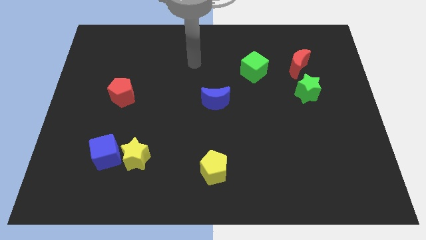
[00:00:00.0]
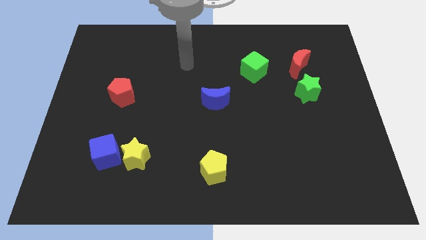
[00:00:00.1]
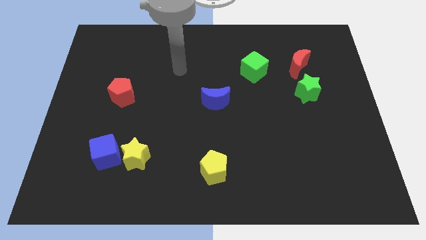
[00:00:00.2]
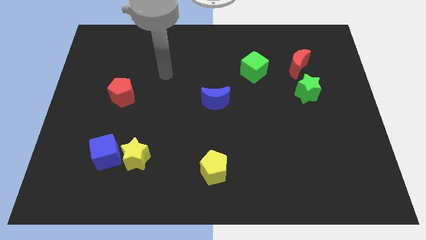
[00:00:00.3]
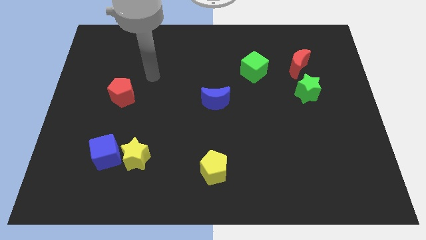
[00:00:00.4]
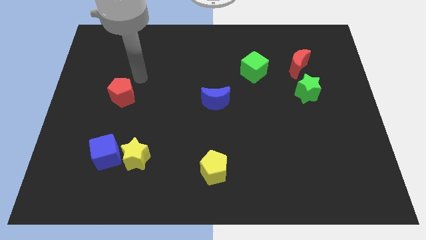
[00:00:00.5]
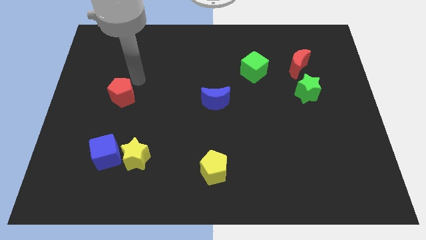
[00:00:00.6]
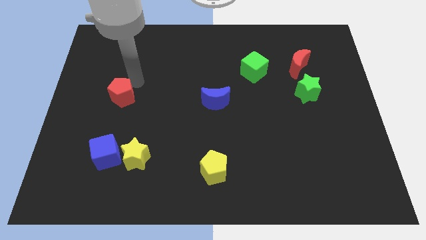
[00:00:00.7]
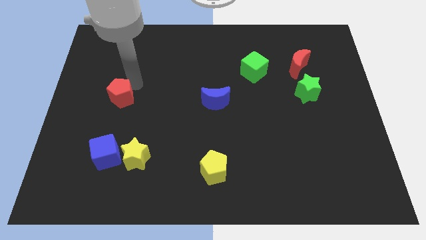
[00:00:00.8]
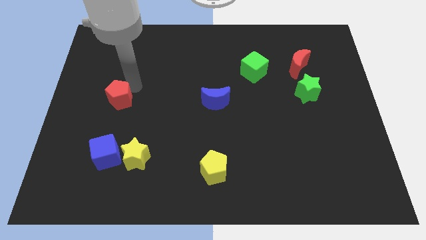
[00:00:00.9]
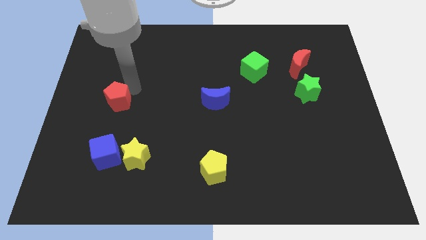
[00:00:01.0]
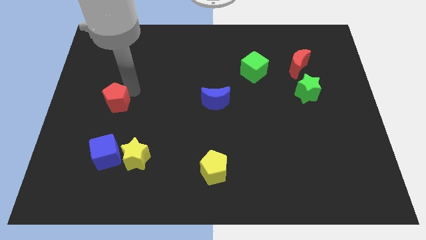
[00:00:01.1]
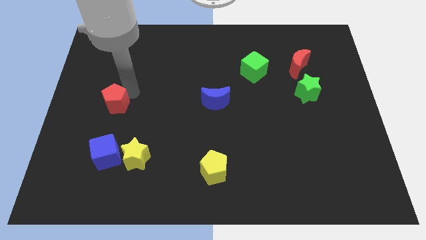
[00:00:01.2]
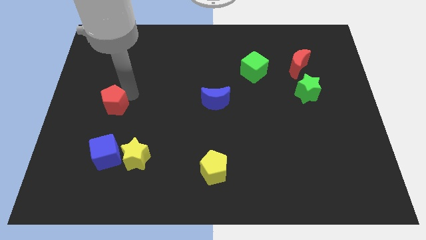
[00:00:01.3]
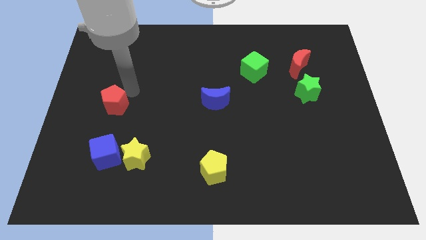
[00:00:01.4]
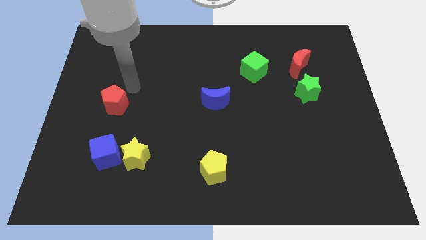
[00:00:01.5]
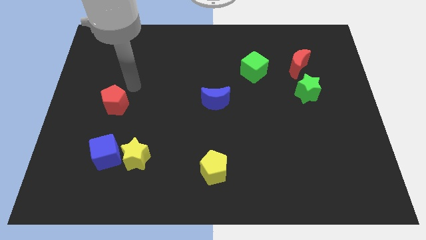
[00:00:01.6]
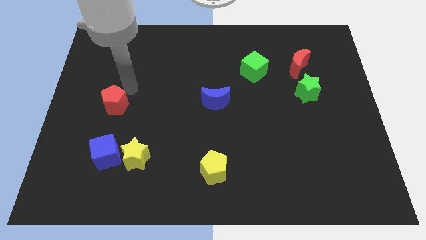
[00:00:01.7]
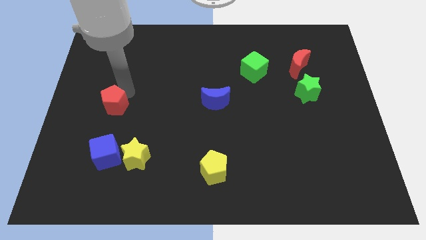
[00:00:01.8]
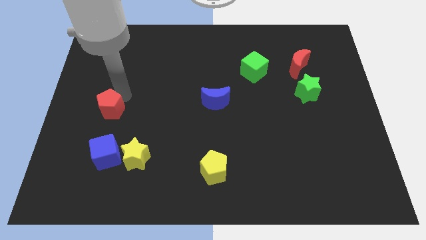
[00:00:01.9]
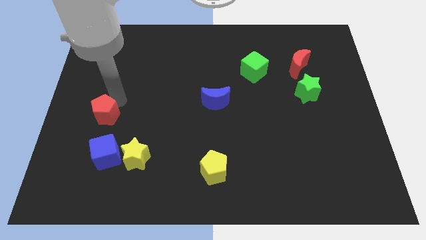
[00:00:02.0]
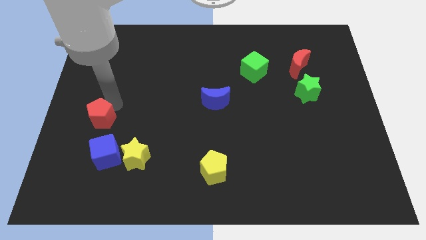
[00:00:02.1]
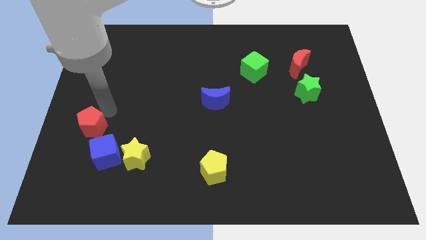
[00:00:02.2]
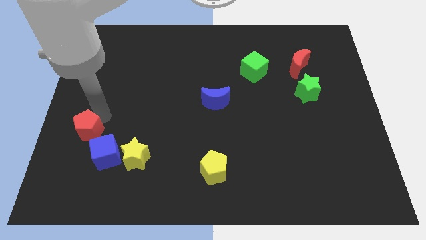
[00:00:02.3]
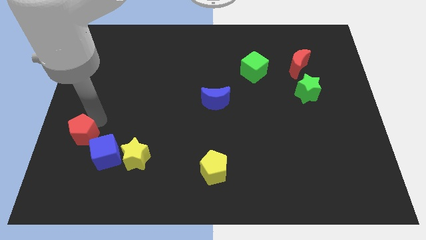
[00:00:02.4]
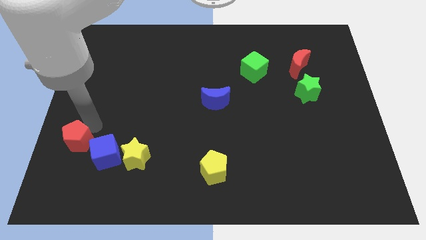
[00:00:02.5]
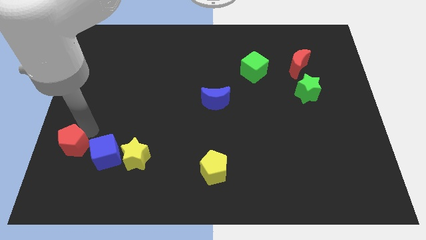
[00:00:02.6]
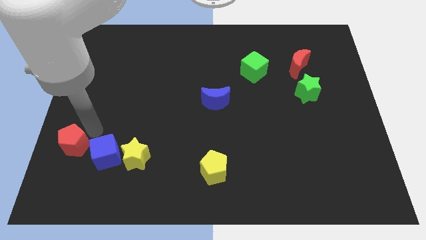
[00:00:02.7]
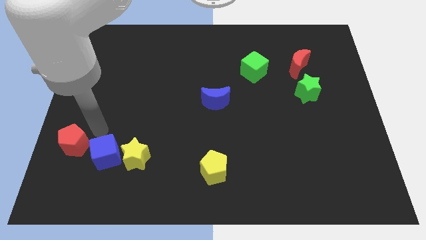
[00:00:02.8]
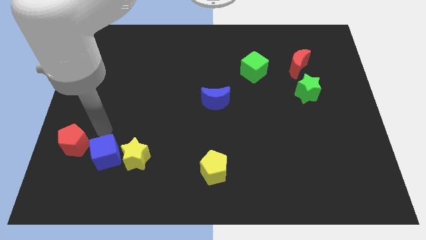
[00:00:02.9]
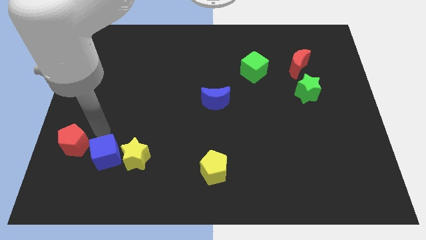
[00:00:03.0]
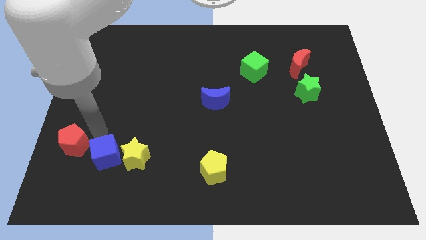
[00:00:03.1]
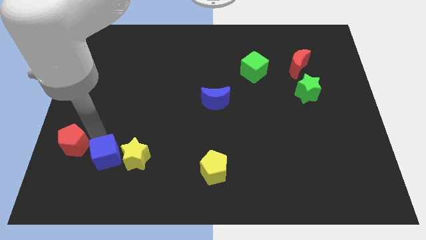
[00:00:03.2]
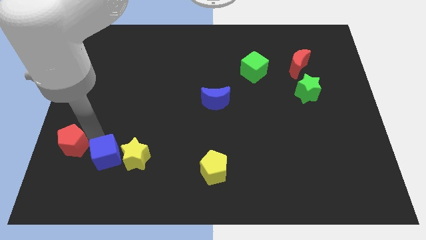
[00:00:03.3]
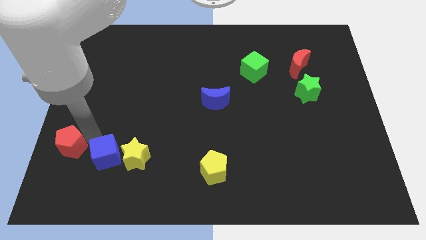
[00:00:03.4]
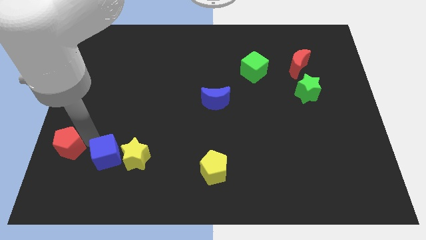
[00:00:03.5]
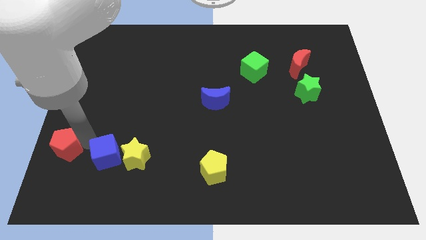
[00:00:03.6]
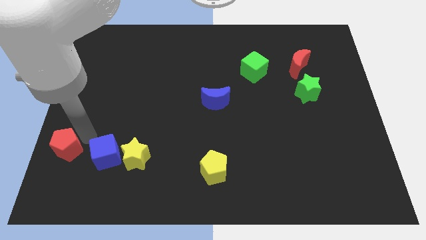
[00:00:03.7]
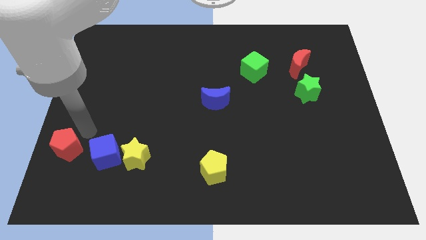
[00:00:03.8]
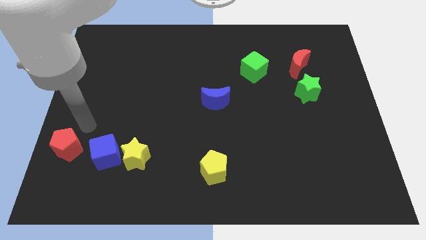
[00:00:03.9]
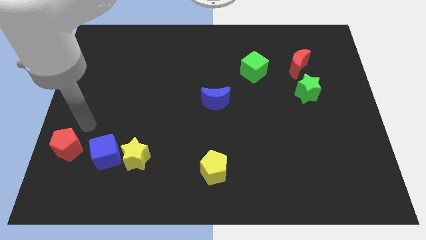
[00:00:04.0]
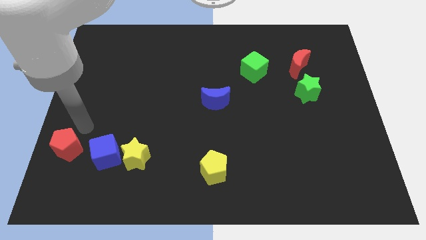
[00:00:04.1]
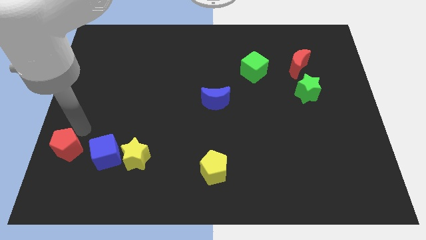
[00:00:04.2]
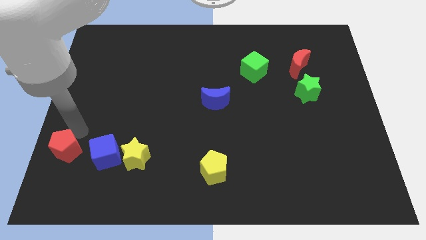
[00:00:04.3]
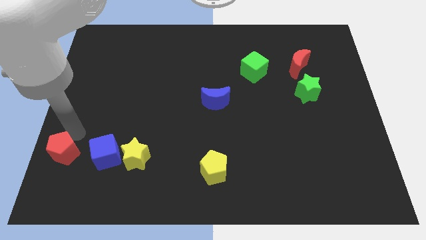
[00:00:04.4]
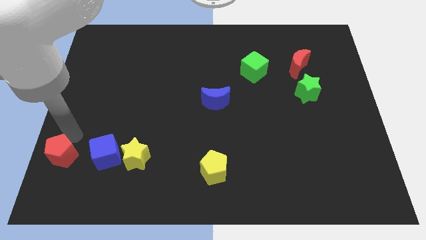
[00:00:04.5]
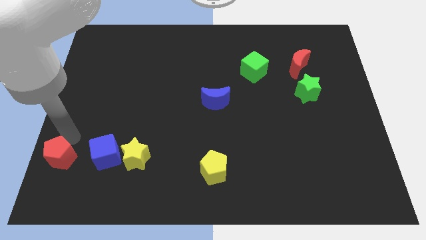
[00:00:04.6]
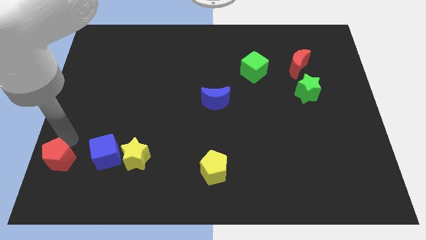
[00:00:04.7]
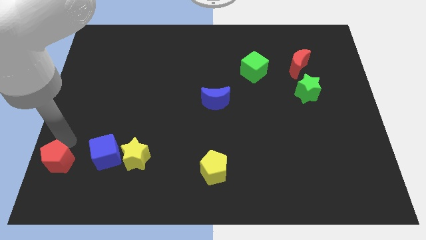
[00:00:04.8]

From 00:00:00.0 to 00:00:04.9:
push the red pentagon to the bottom left

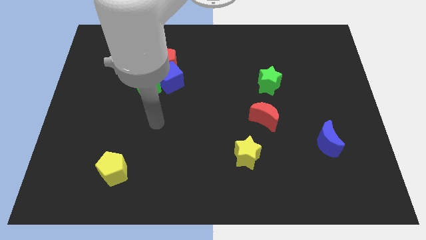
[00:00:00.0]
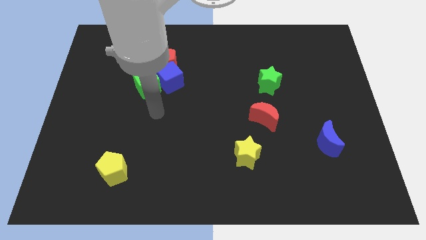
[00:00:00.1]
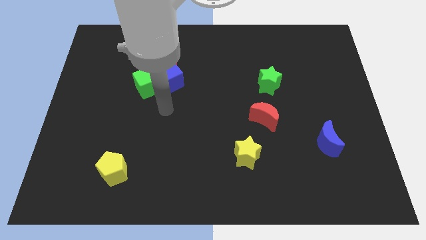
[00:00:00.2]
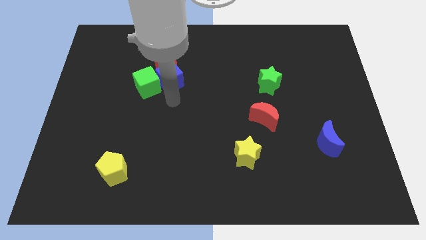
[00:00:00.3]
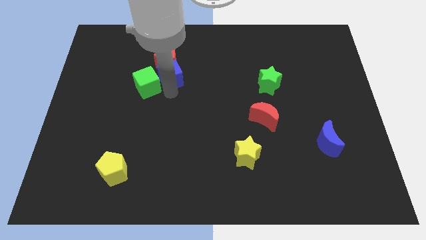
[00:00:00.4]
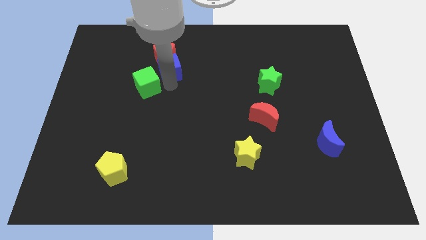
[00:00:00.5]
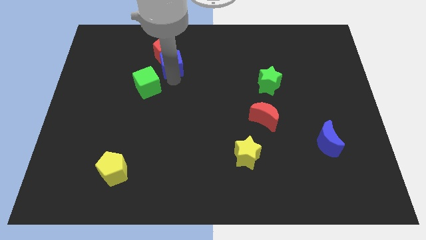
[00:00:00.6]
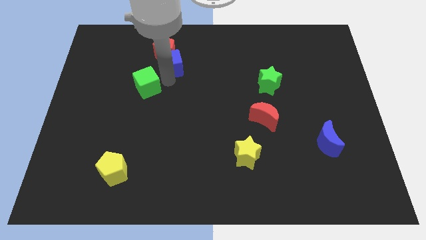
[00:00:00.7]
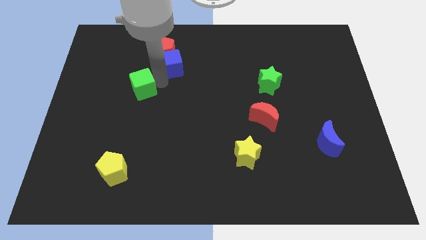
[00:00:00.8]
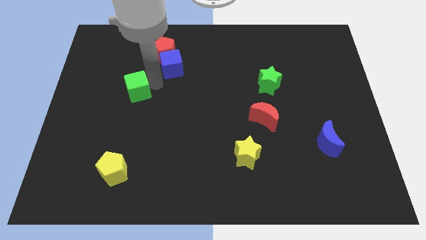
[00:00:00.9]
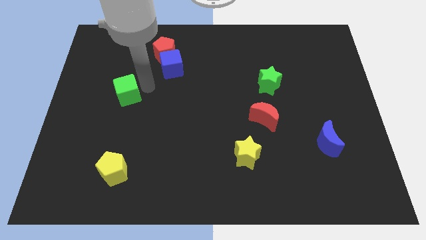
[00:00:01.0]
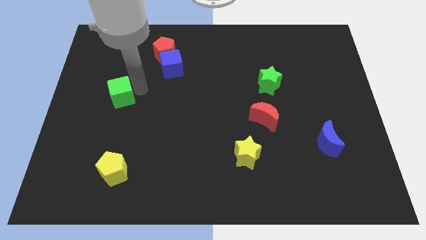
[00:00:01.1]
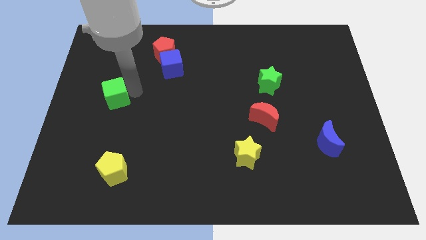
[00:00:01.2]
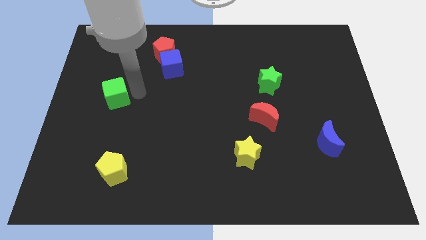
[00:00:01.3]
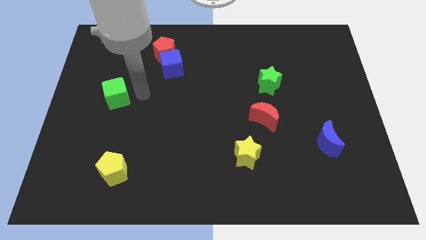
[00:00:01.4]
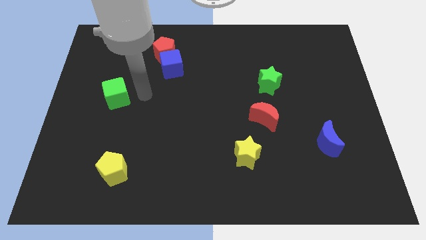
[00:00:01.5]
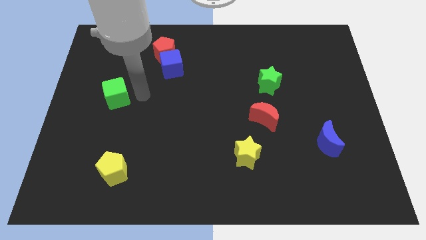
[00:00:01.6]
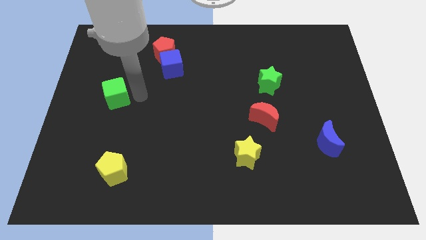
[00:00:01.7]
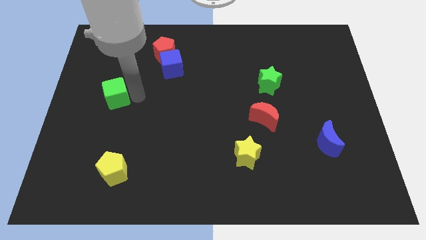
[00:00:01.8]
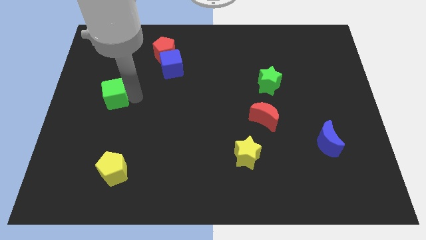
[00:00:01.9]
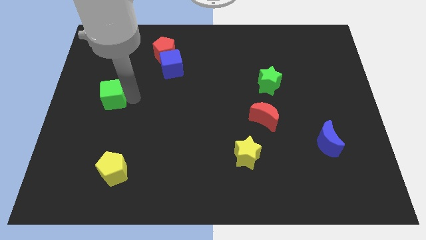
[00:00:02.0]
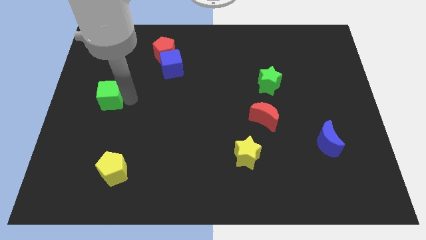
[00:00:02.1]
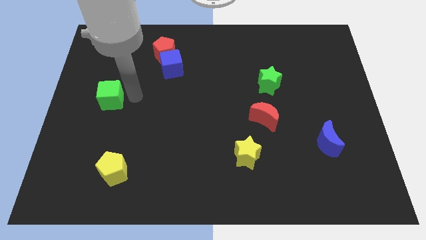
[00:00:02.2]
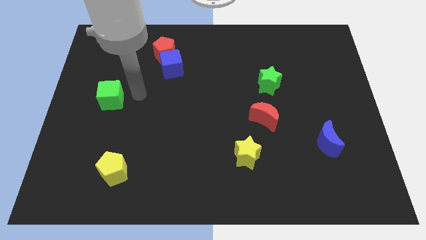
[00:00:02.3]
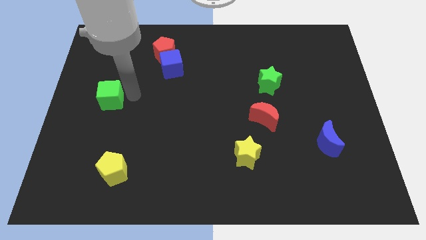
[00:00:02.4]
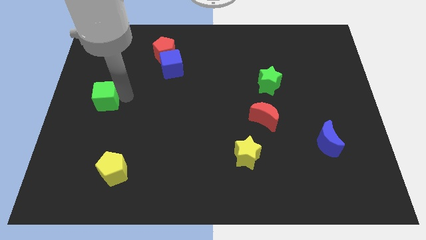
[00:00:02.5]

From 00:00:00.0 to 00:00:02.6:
slide the green cube to the center left
